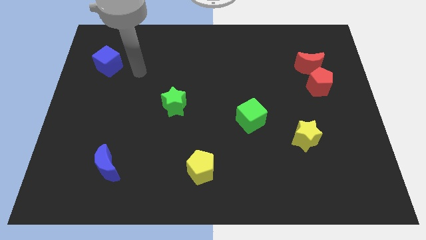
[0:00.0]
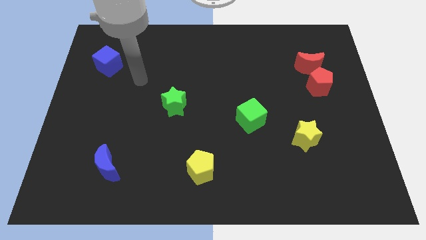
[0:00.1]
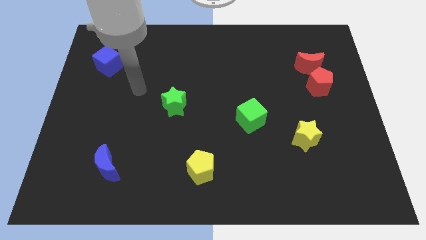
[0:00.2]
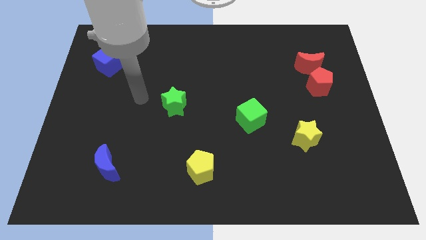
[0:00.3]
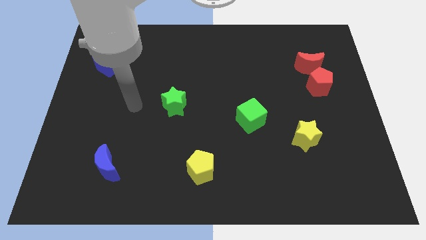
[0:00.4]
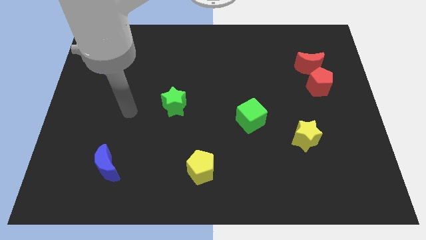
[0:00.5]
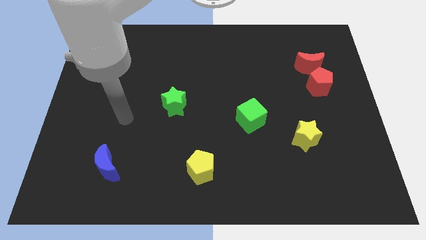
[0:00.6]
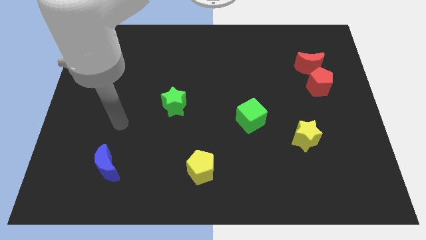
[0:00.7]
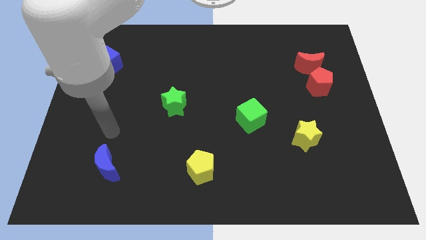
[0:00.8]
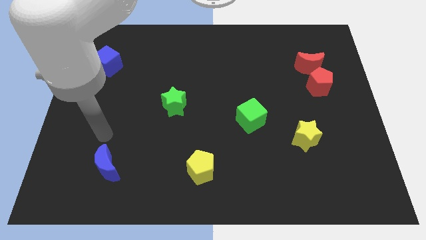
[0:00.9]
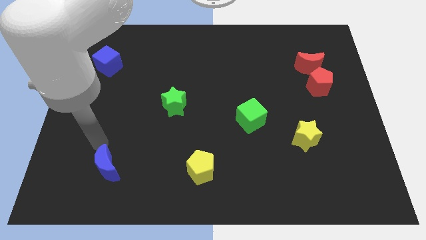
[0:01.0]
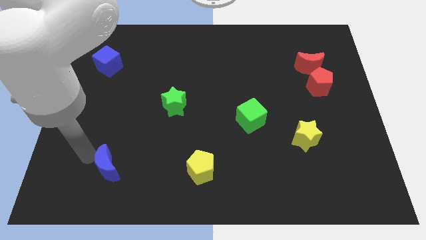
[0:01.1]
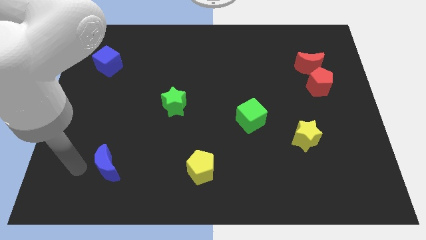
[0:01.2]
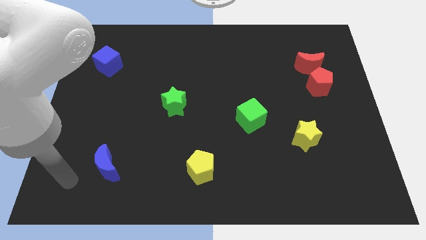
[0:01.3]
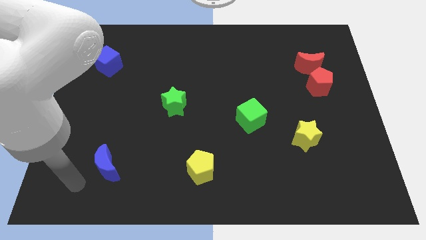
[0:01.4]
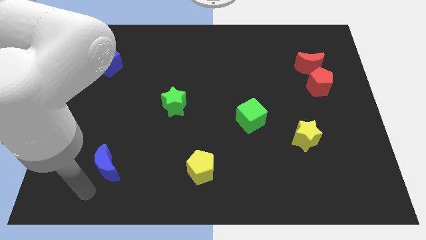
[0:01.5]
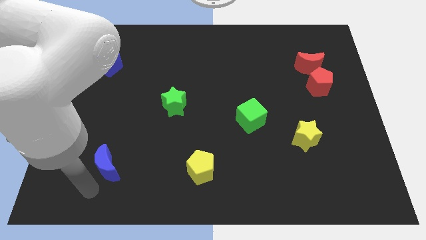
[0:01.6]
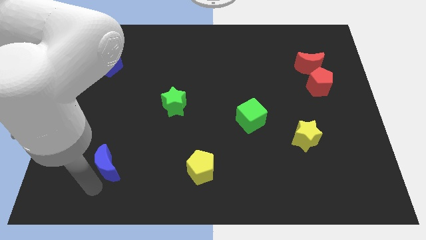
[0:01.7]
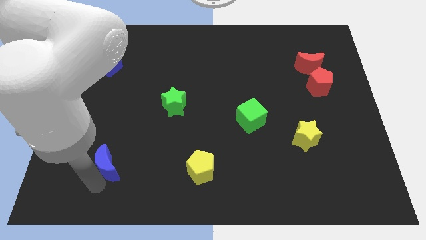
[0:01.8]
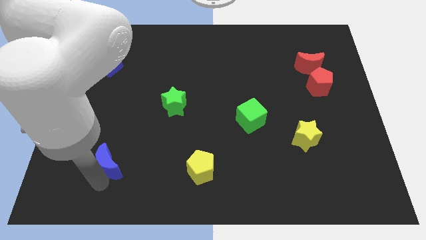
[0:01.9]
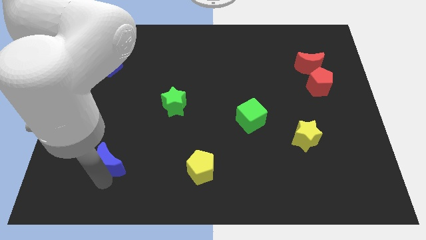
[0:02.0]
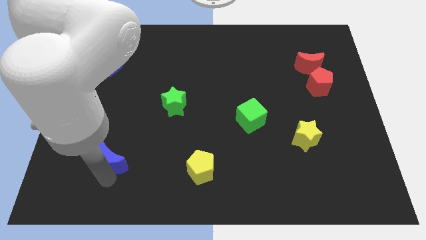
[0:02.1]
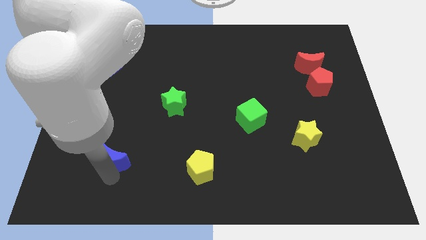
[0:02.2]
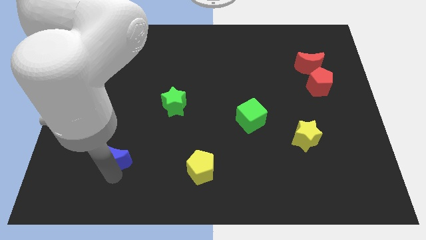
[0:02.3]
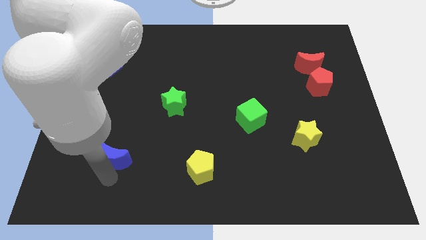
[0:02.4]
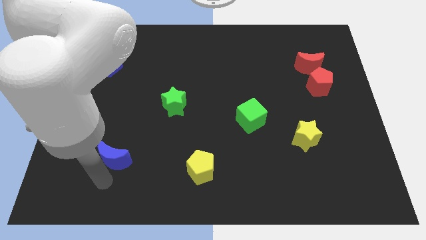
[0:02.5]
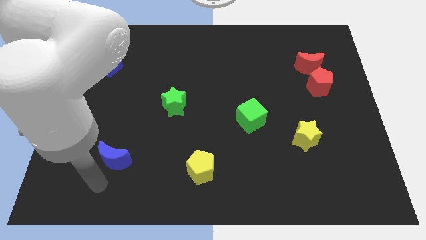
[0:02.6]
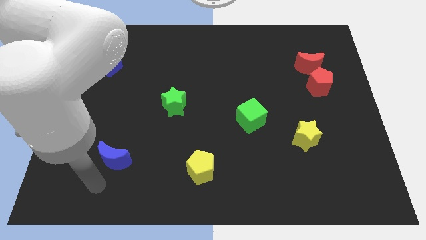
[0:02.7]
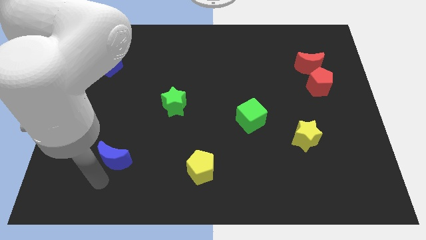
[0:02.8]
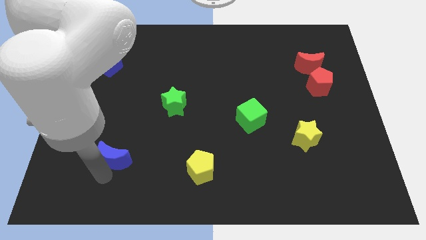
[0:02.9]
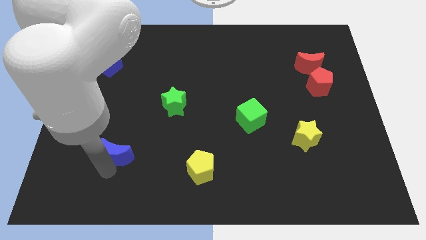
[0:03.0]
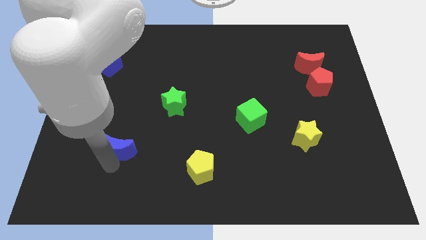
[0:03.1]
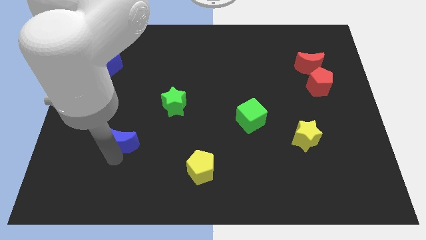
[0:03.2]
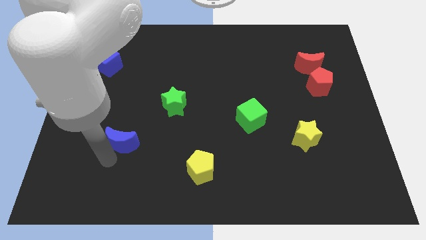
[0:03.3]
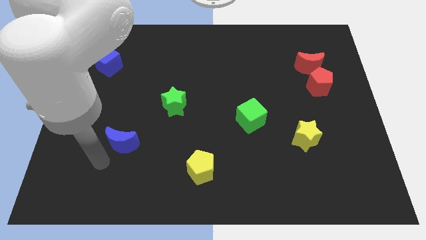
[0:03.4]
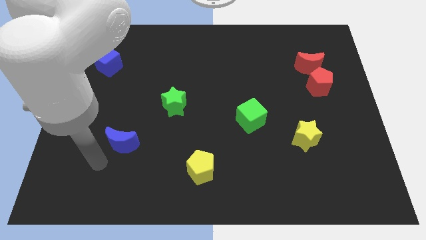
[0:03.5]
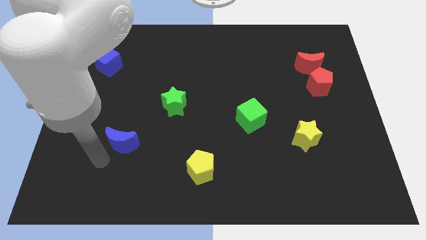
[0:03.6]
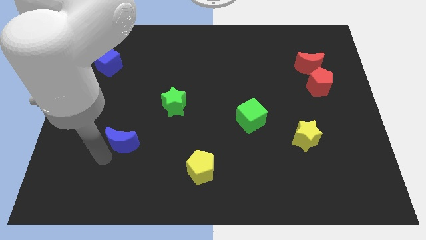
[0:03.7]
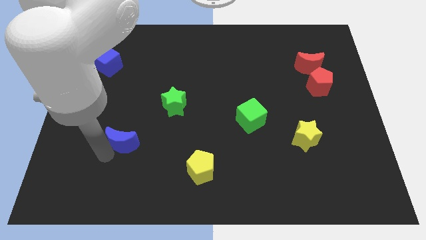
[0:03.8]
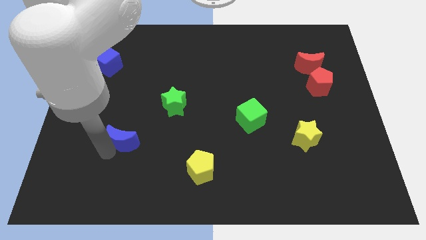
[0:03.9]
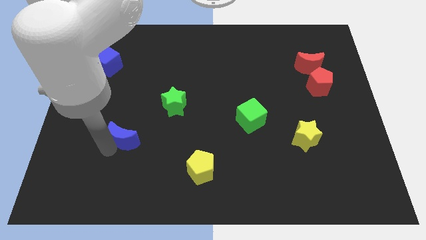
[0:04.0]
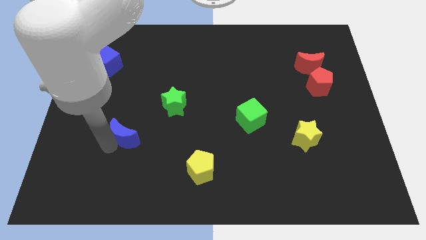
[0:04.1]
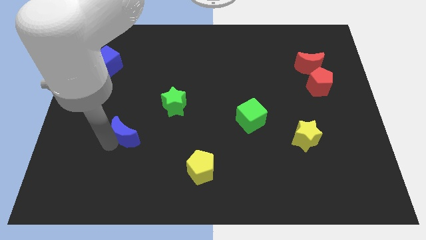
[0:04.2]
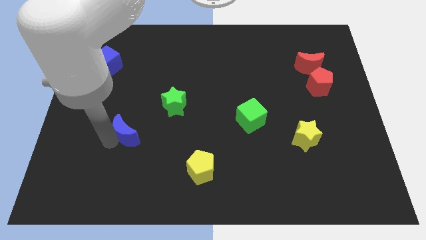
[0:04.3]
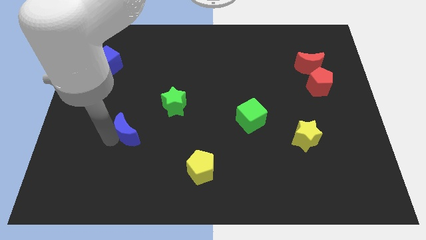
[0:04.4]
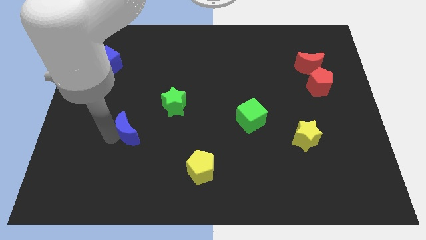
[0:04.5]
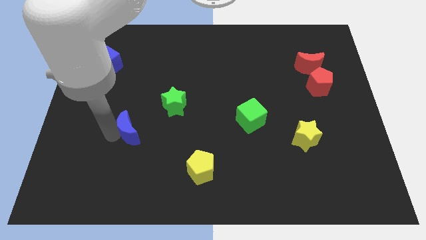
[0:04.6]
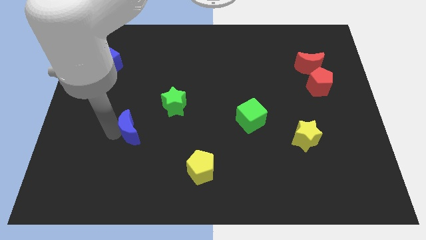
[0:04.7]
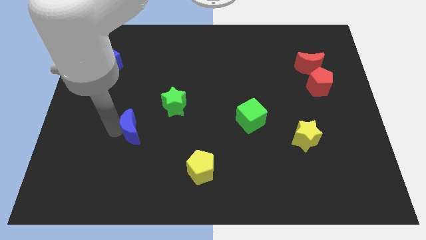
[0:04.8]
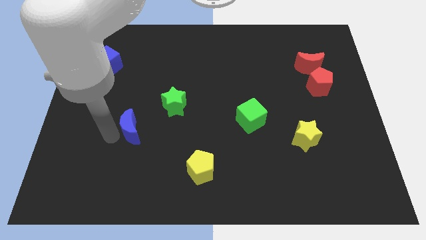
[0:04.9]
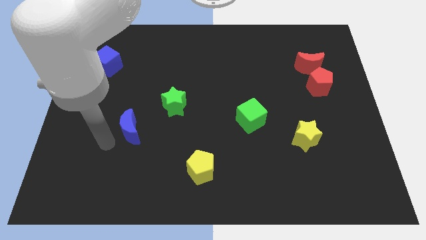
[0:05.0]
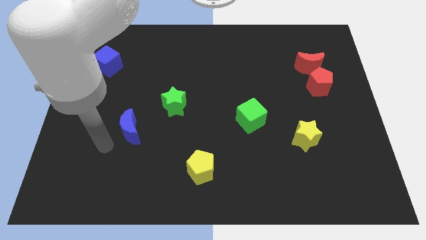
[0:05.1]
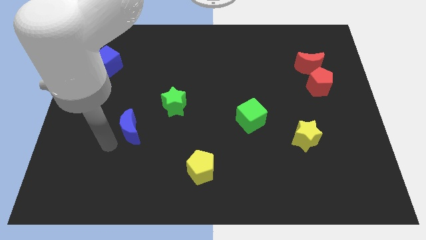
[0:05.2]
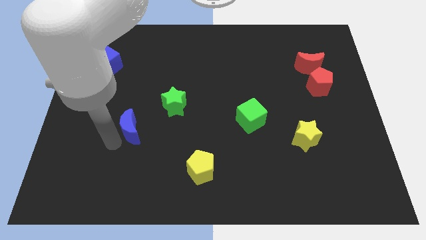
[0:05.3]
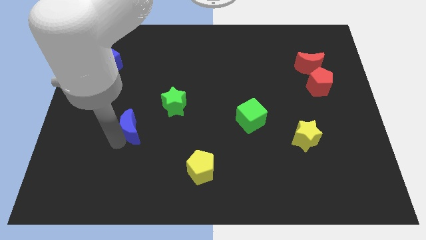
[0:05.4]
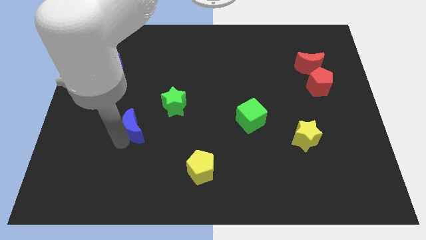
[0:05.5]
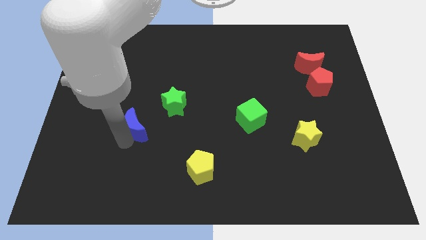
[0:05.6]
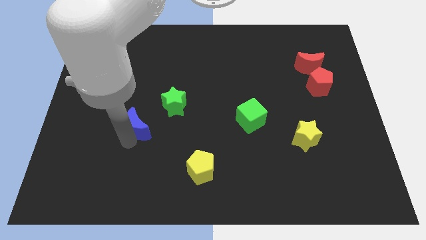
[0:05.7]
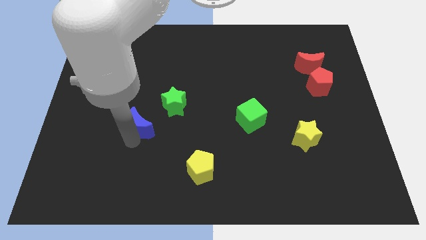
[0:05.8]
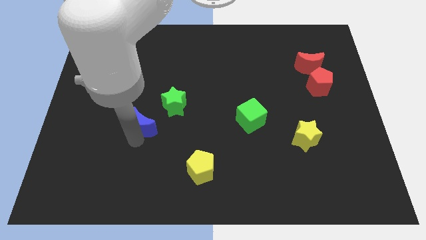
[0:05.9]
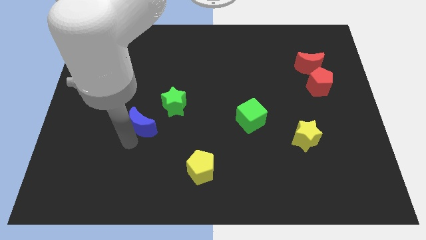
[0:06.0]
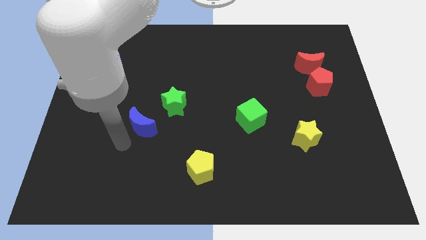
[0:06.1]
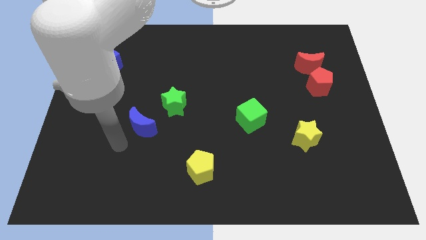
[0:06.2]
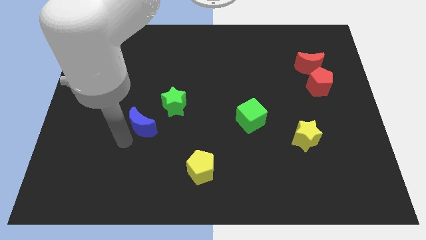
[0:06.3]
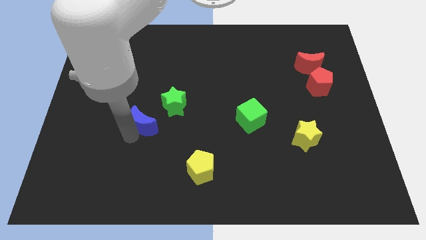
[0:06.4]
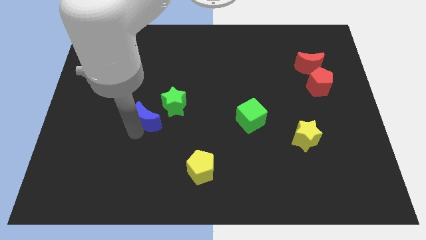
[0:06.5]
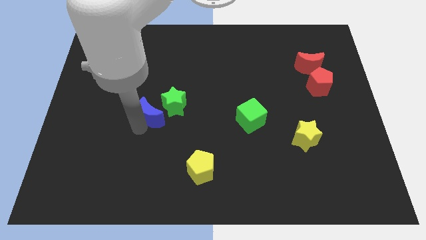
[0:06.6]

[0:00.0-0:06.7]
push the blue moon towards the green star

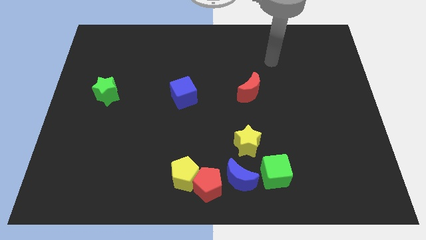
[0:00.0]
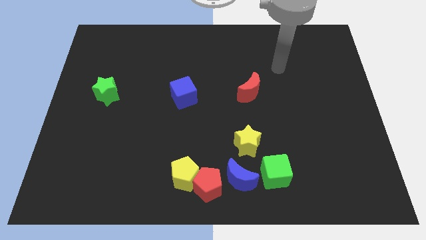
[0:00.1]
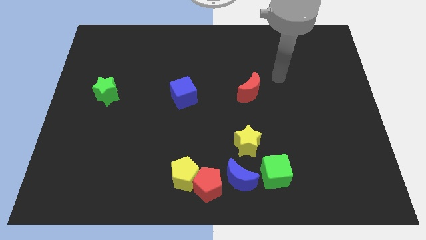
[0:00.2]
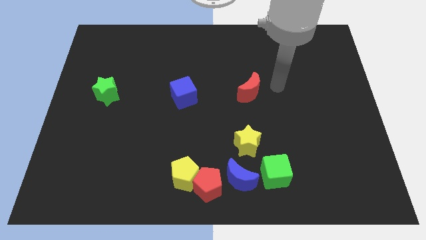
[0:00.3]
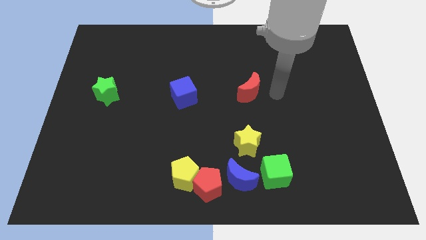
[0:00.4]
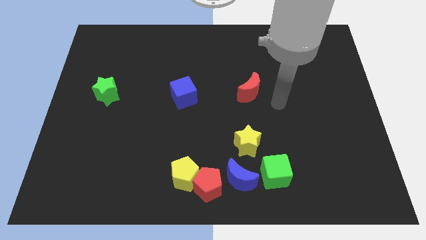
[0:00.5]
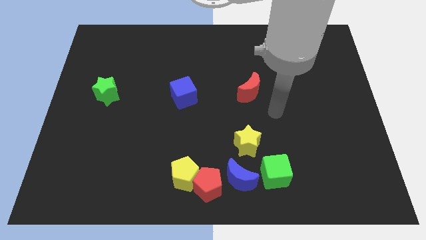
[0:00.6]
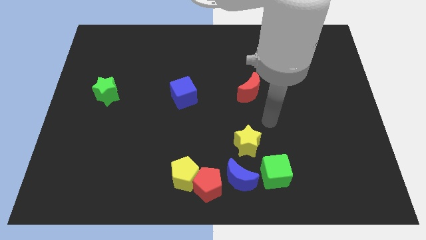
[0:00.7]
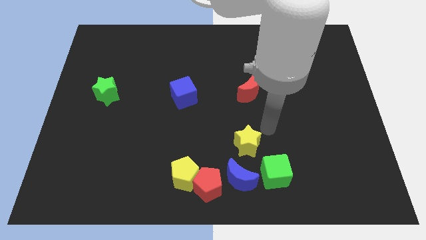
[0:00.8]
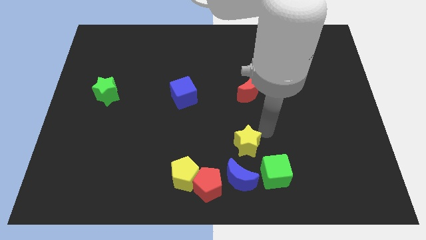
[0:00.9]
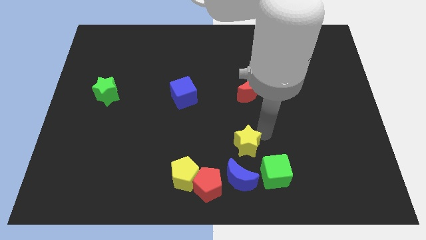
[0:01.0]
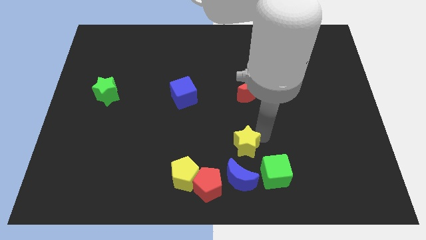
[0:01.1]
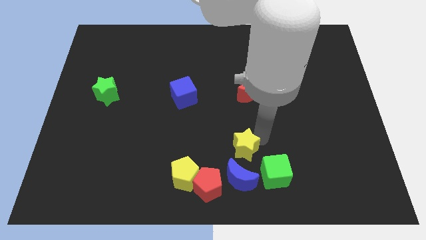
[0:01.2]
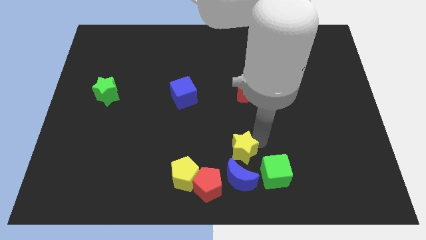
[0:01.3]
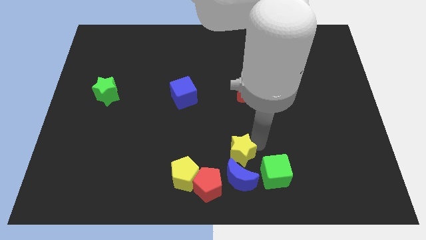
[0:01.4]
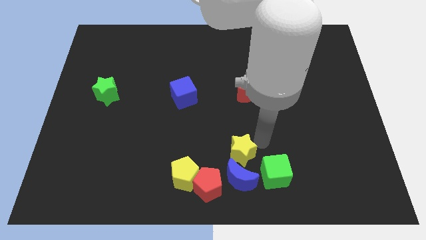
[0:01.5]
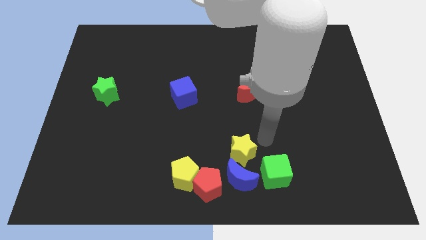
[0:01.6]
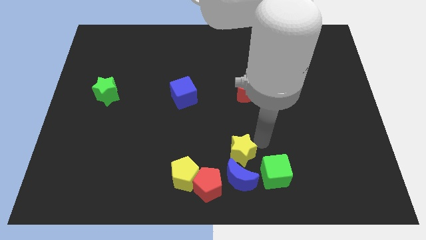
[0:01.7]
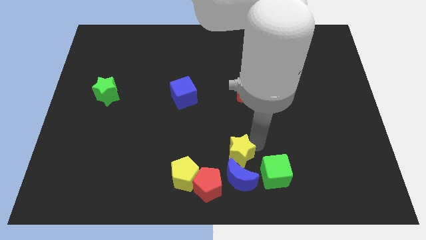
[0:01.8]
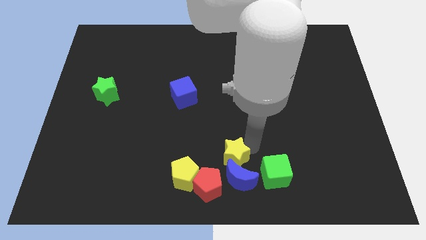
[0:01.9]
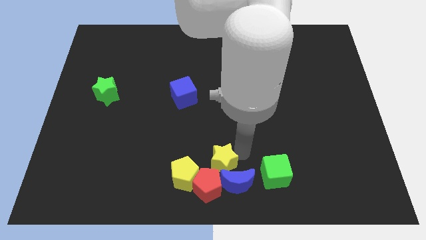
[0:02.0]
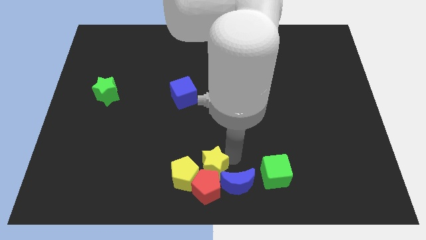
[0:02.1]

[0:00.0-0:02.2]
put the yellow star towards the yellow pentagon
